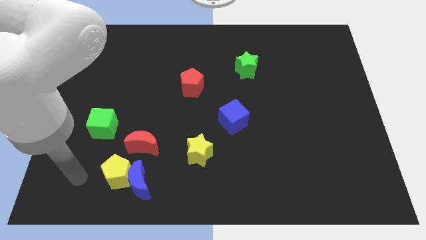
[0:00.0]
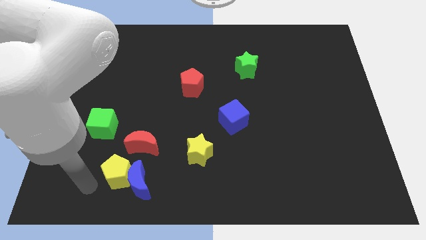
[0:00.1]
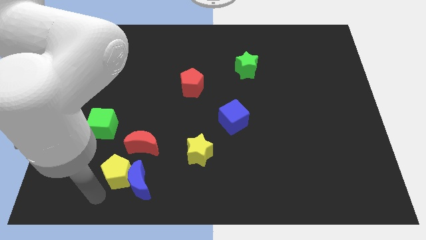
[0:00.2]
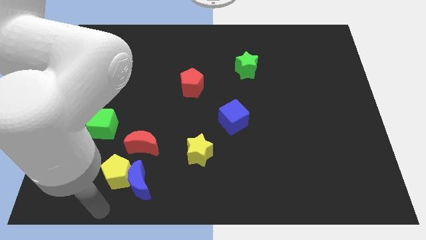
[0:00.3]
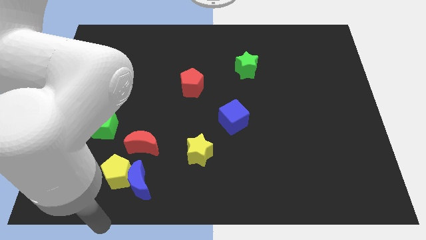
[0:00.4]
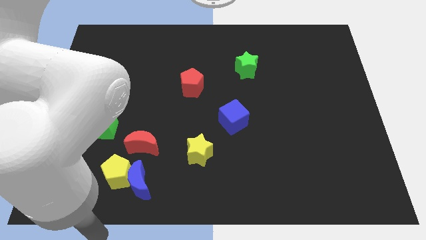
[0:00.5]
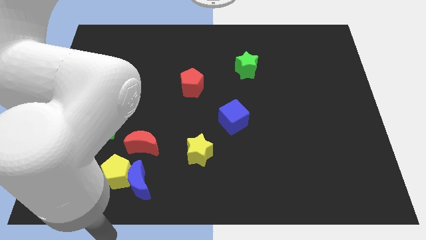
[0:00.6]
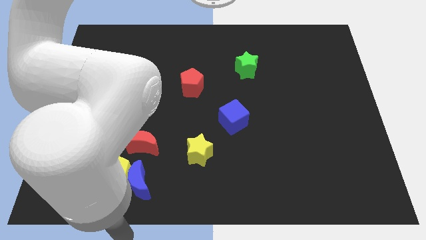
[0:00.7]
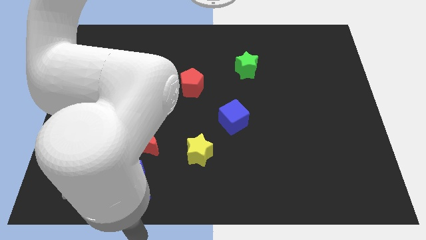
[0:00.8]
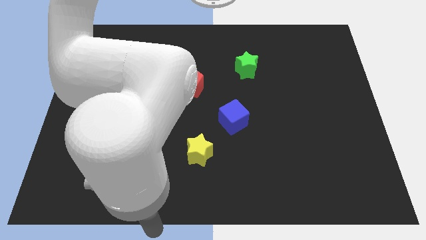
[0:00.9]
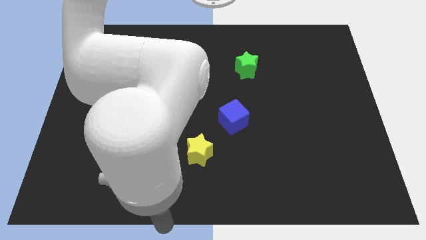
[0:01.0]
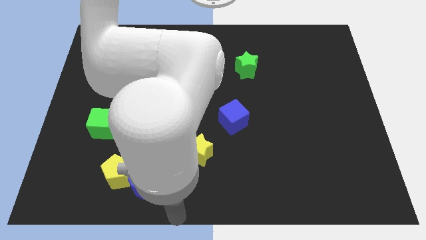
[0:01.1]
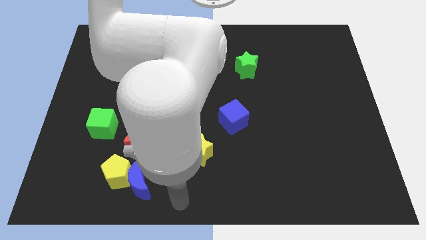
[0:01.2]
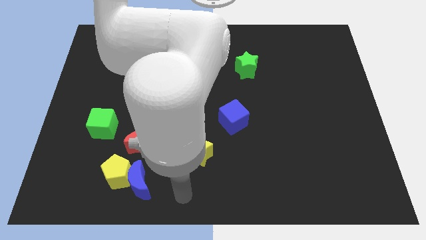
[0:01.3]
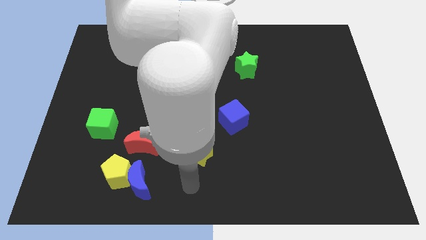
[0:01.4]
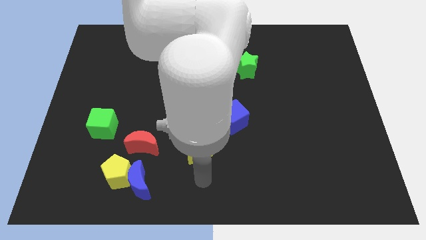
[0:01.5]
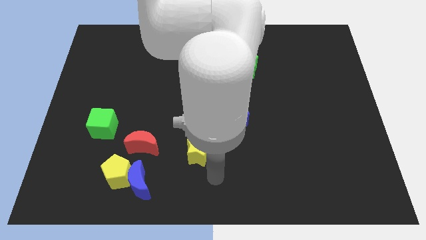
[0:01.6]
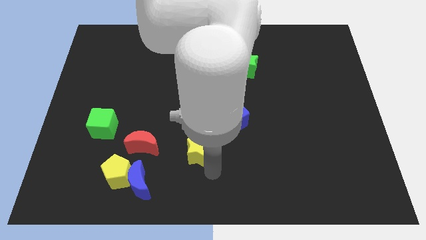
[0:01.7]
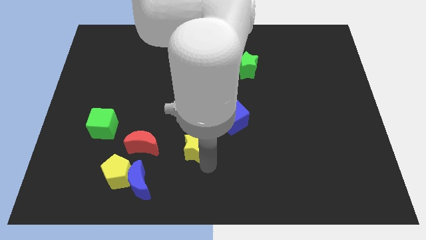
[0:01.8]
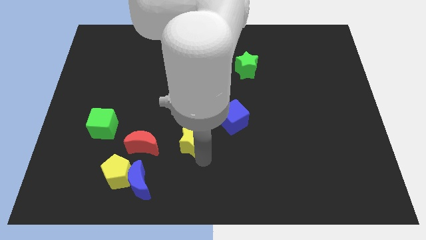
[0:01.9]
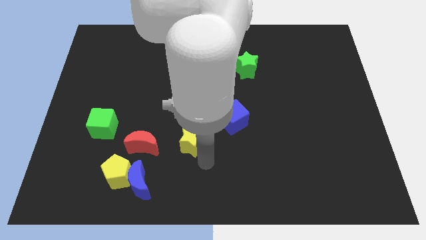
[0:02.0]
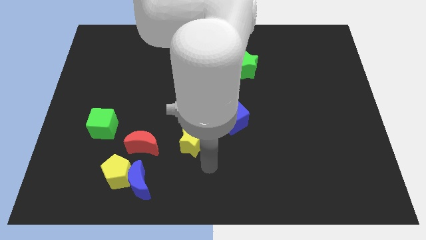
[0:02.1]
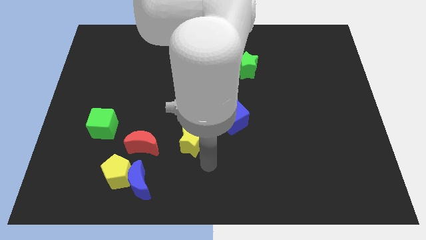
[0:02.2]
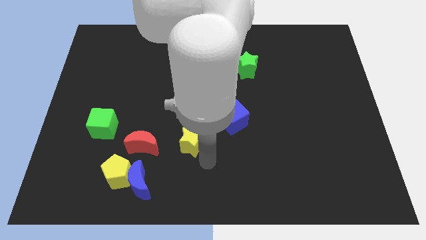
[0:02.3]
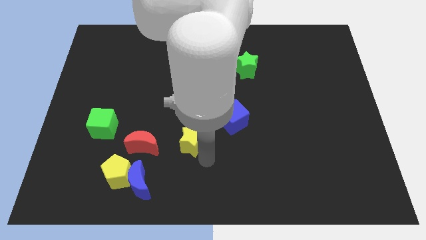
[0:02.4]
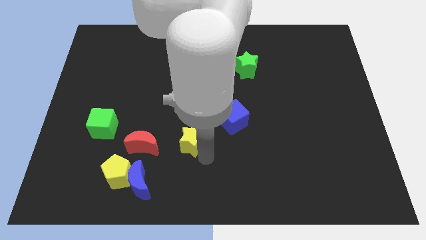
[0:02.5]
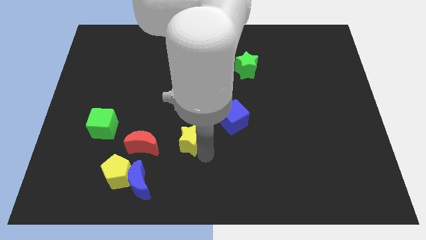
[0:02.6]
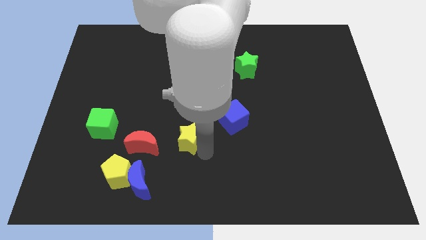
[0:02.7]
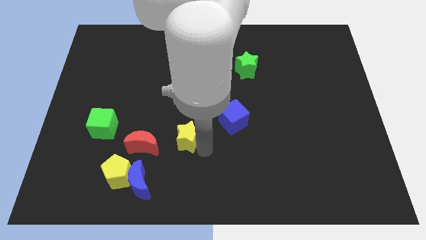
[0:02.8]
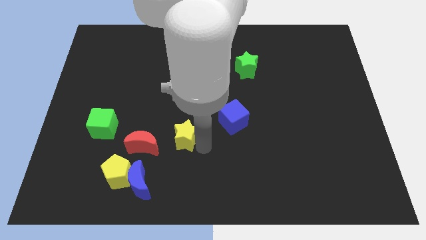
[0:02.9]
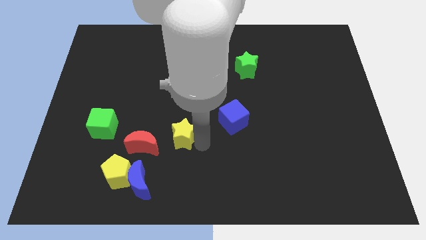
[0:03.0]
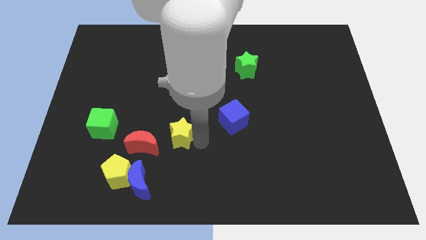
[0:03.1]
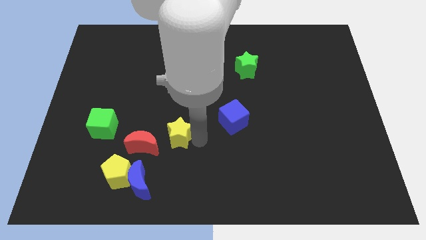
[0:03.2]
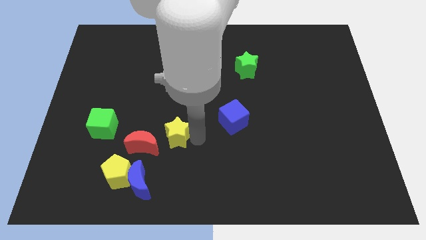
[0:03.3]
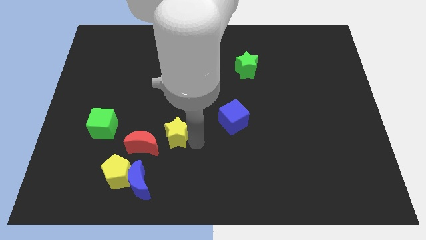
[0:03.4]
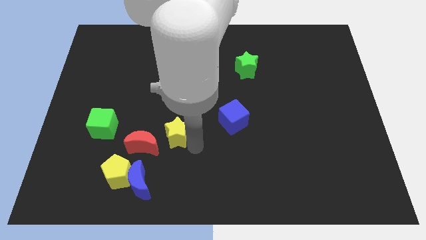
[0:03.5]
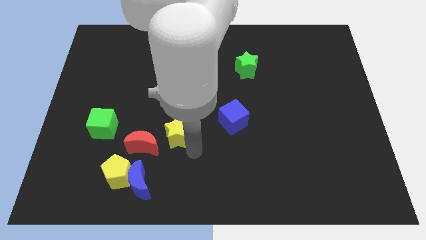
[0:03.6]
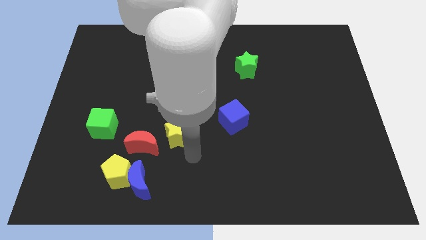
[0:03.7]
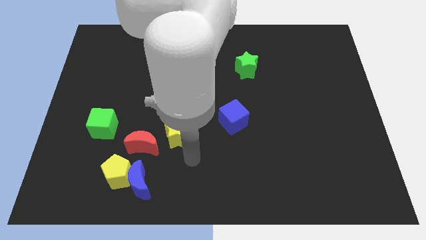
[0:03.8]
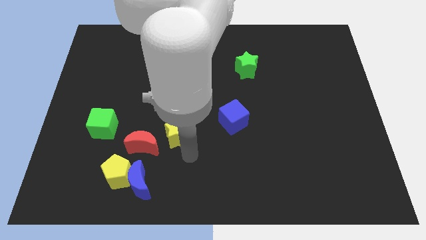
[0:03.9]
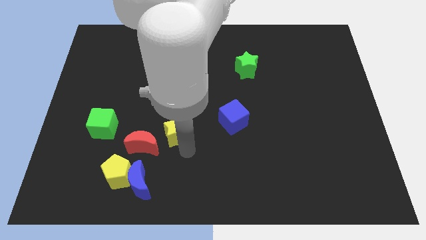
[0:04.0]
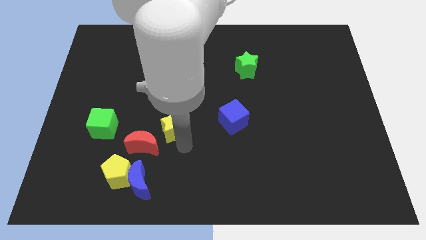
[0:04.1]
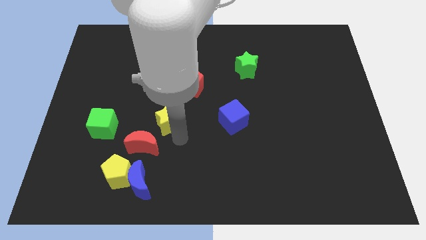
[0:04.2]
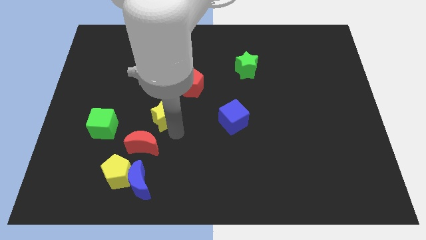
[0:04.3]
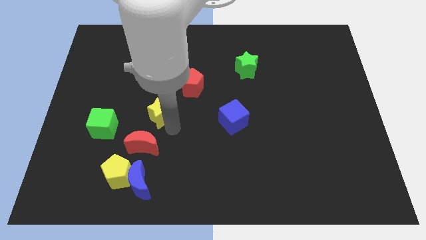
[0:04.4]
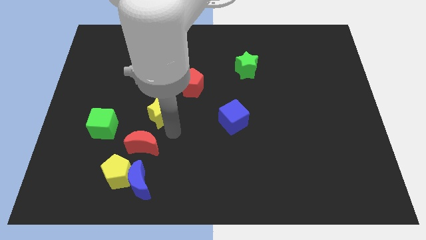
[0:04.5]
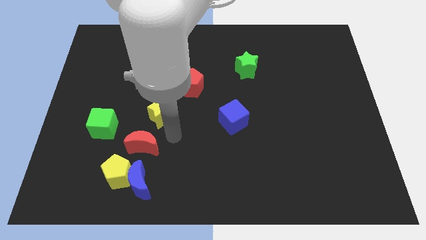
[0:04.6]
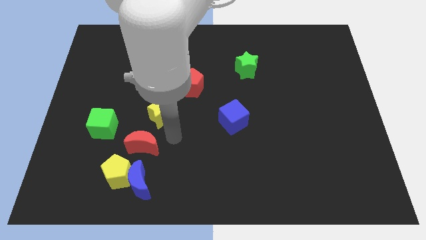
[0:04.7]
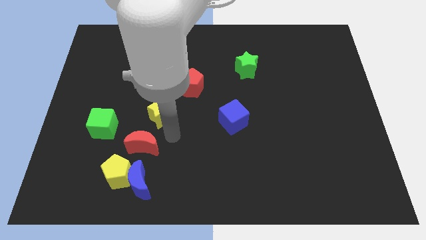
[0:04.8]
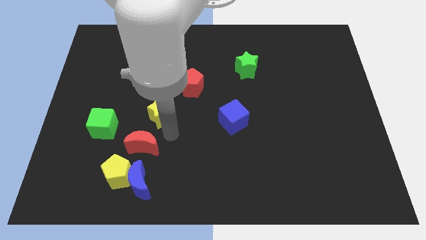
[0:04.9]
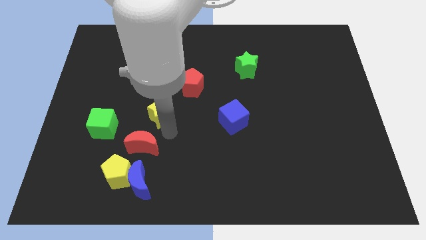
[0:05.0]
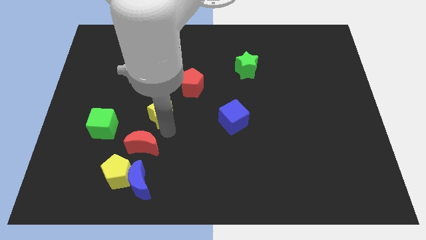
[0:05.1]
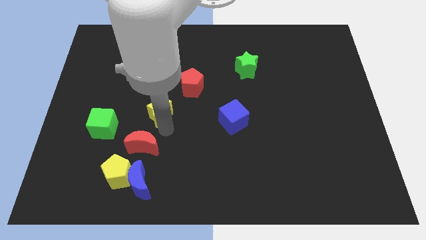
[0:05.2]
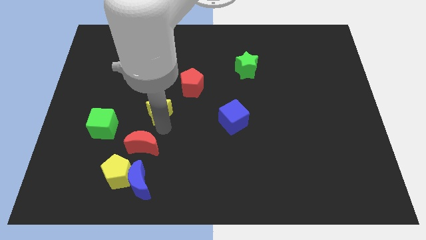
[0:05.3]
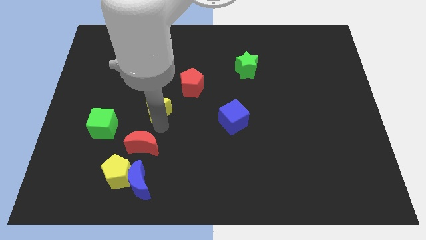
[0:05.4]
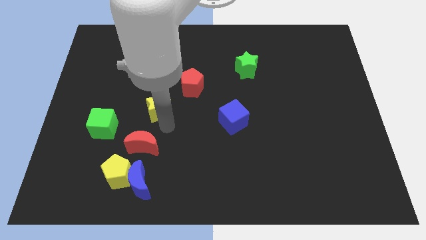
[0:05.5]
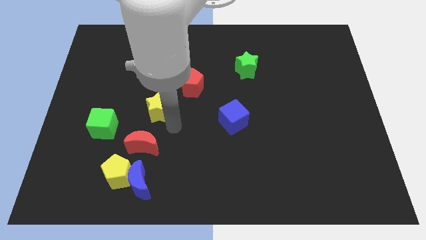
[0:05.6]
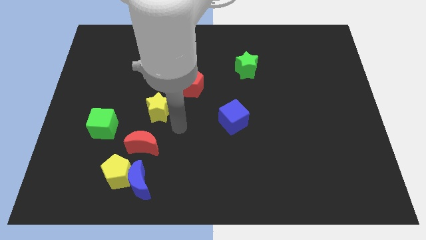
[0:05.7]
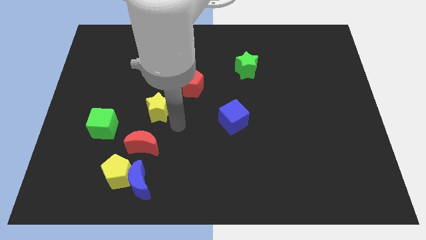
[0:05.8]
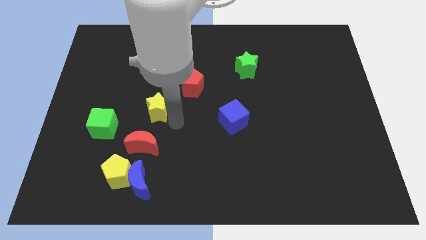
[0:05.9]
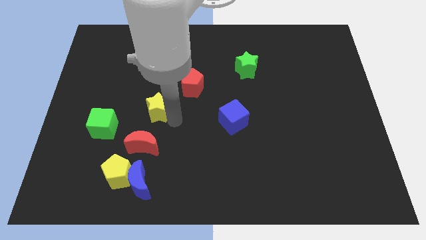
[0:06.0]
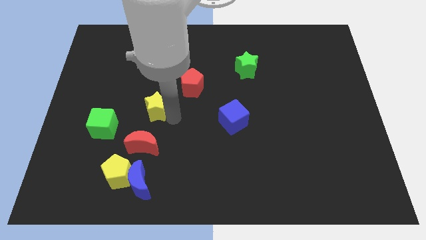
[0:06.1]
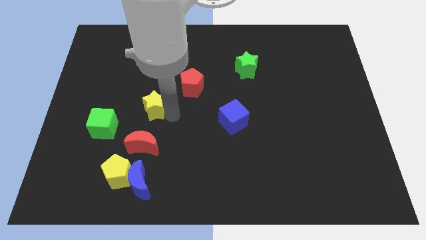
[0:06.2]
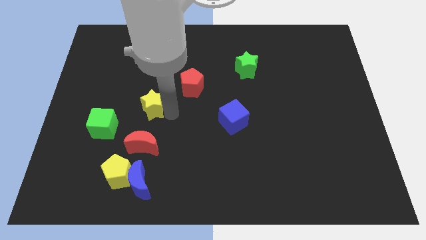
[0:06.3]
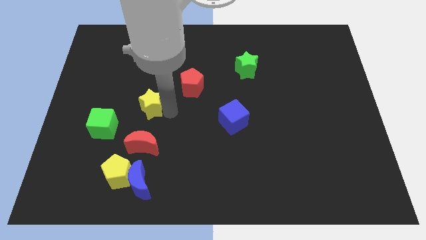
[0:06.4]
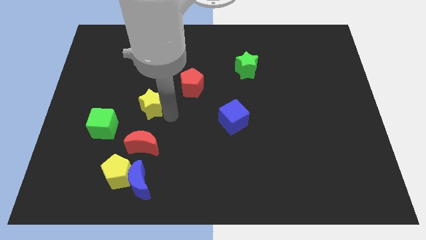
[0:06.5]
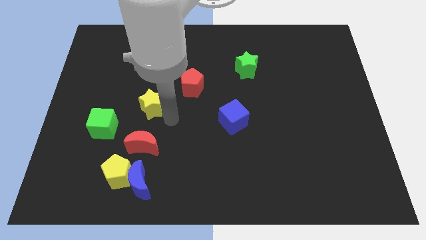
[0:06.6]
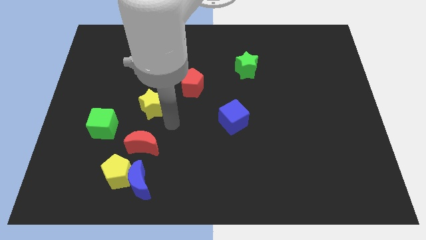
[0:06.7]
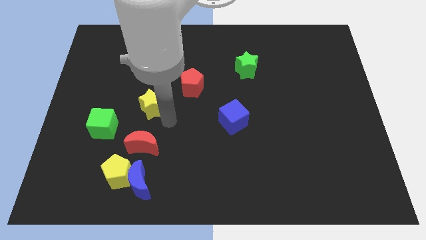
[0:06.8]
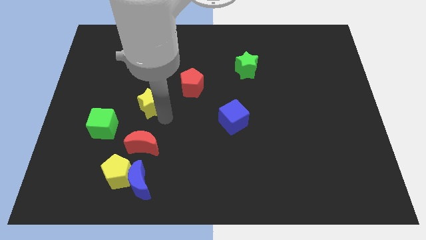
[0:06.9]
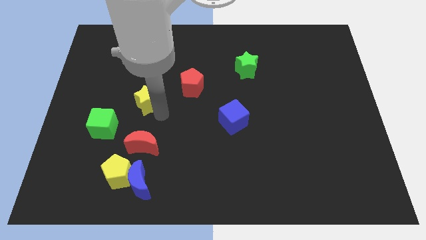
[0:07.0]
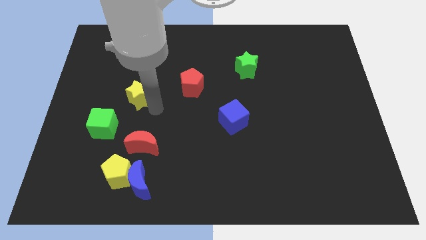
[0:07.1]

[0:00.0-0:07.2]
push the yellow star upwards and to the left diagonally

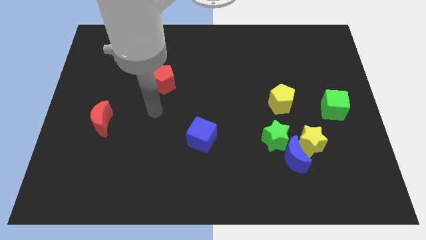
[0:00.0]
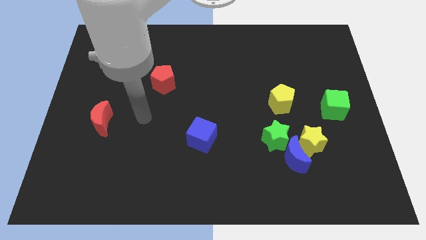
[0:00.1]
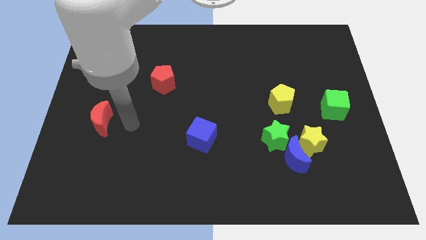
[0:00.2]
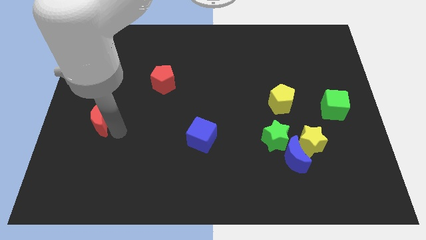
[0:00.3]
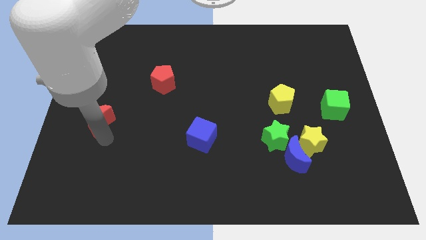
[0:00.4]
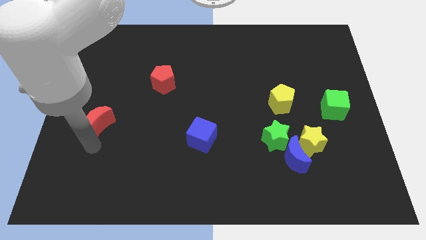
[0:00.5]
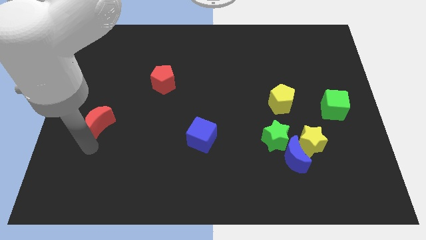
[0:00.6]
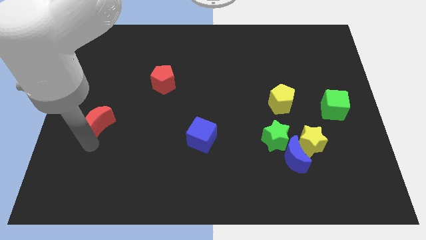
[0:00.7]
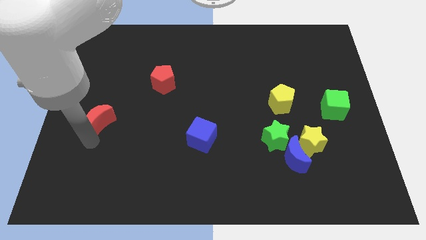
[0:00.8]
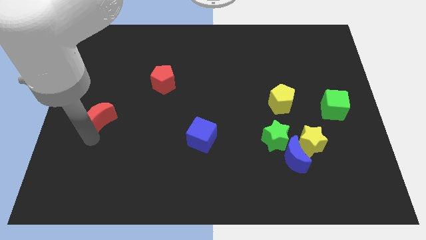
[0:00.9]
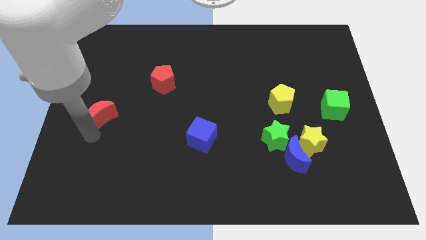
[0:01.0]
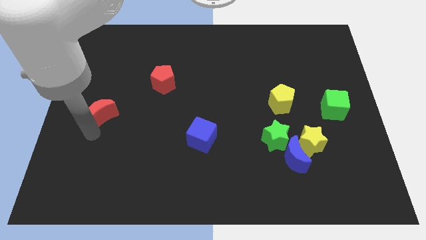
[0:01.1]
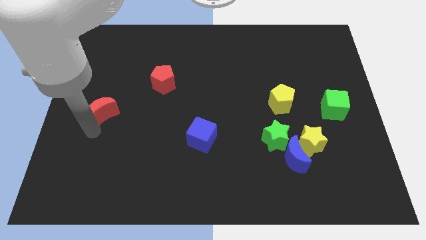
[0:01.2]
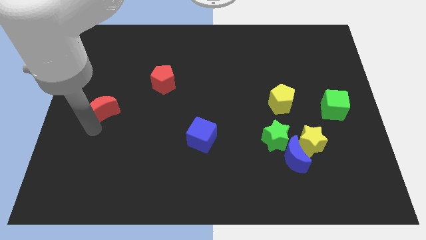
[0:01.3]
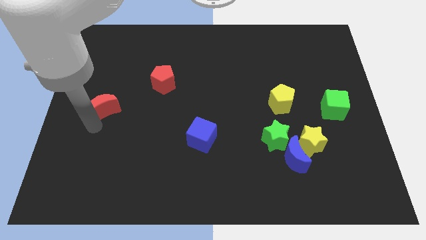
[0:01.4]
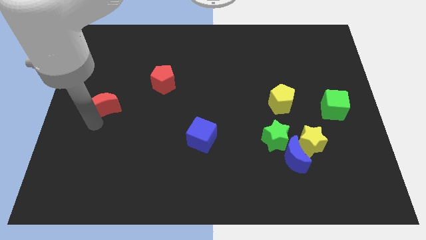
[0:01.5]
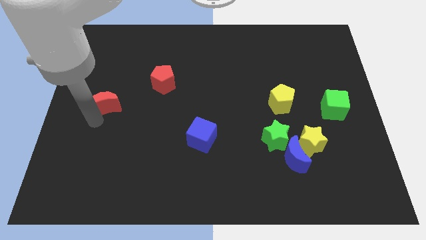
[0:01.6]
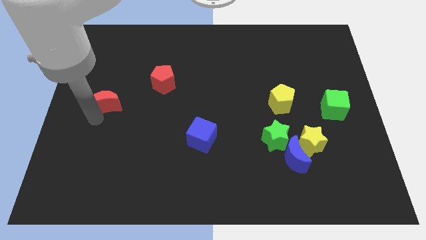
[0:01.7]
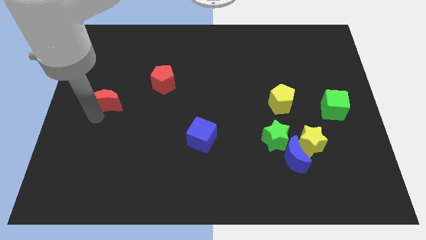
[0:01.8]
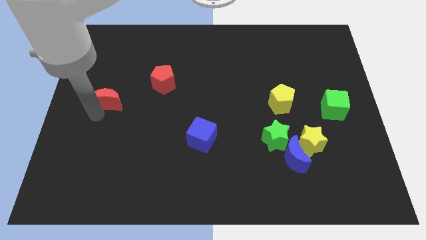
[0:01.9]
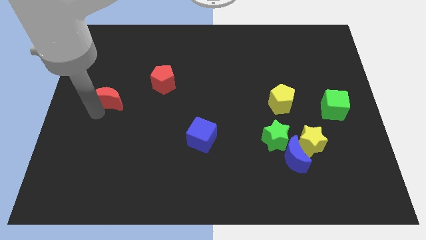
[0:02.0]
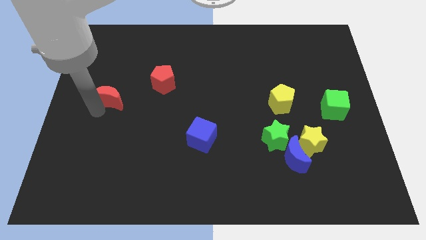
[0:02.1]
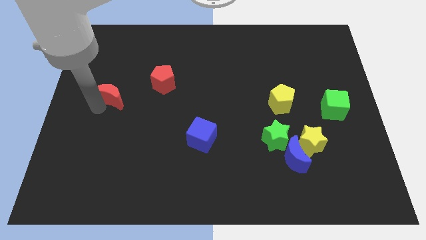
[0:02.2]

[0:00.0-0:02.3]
slide the red moon upwards slightly
